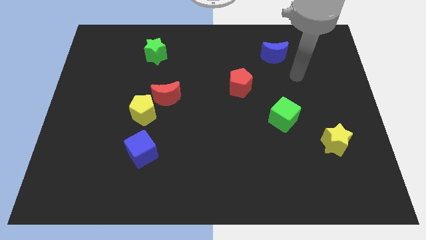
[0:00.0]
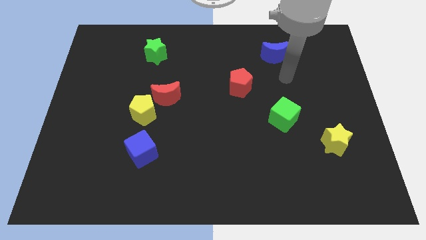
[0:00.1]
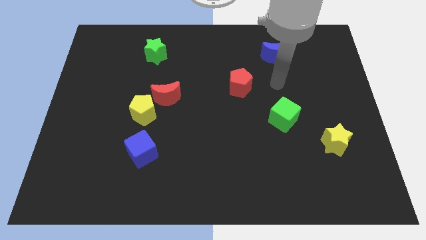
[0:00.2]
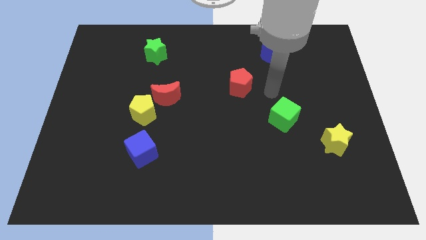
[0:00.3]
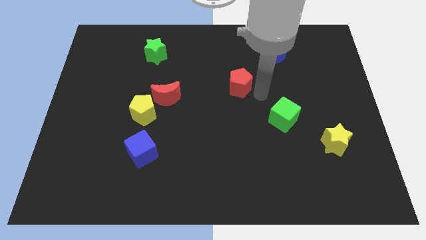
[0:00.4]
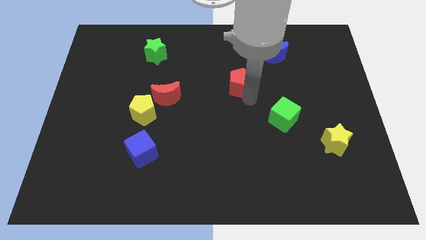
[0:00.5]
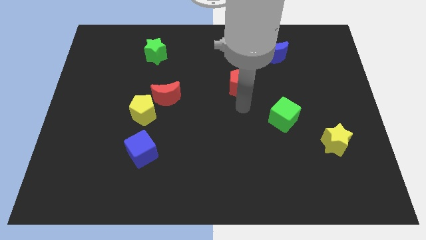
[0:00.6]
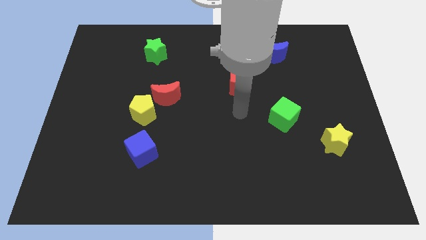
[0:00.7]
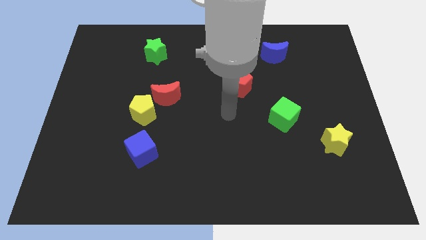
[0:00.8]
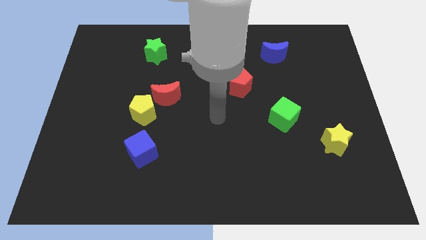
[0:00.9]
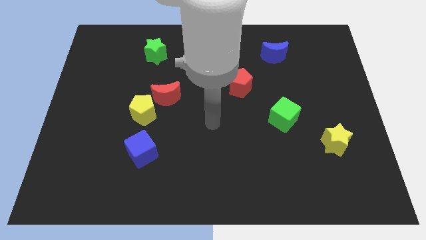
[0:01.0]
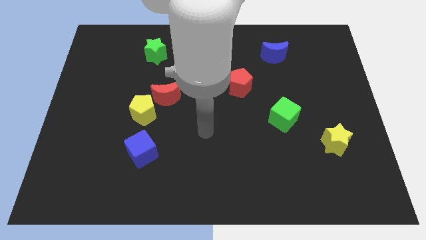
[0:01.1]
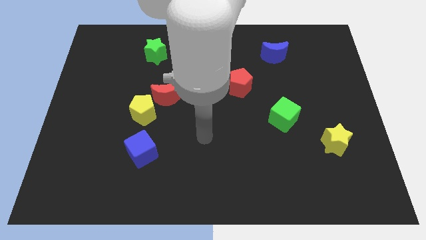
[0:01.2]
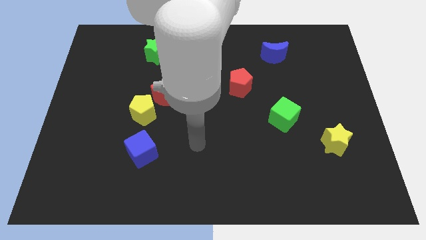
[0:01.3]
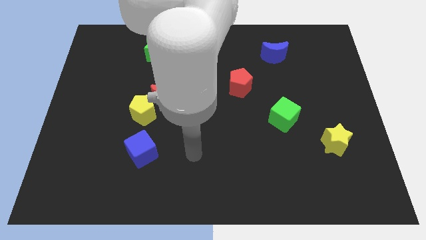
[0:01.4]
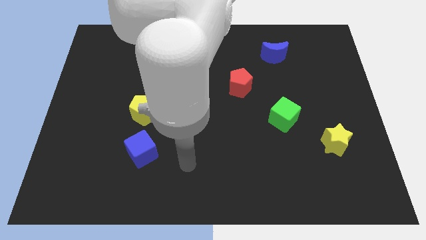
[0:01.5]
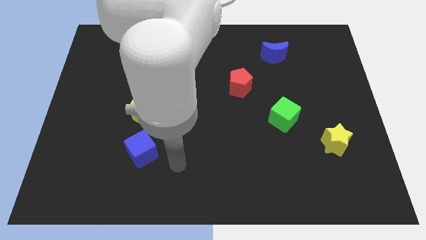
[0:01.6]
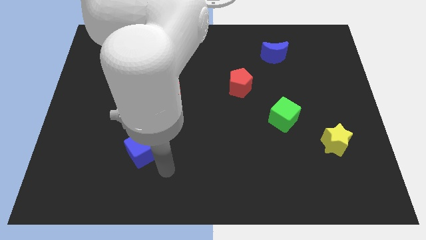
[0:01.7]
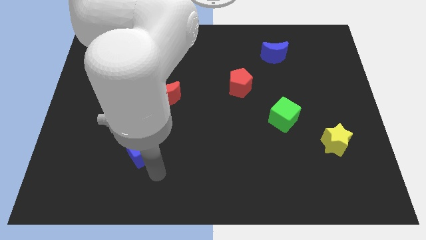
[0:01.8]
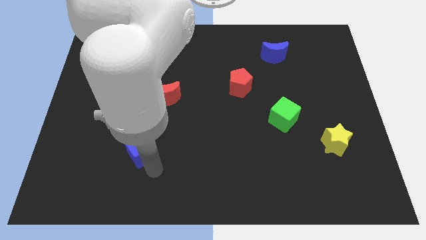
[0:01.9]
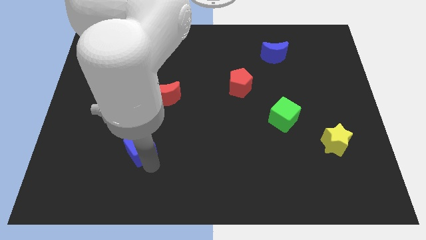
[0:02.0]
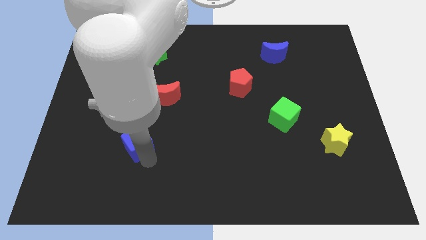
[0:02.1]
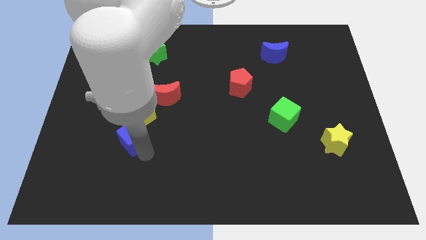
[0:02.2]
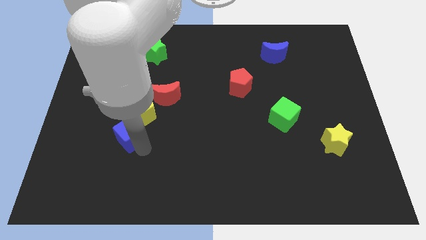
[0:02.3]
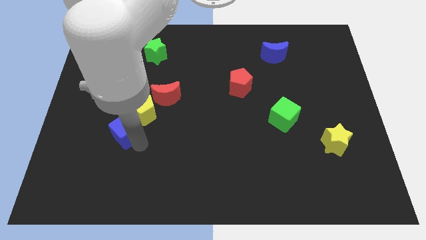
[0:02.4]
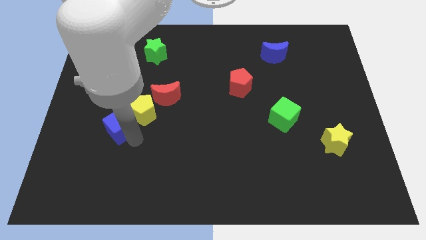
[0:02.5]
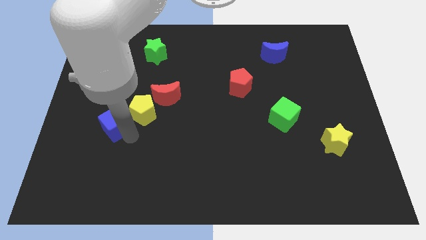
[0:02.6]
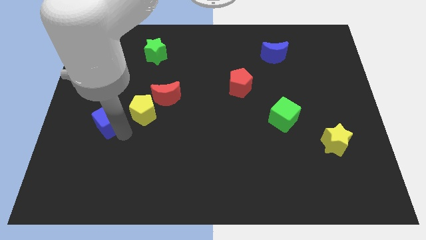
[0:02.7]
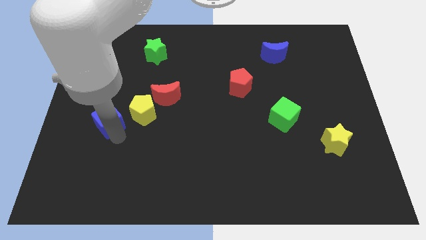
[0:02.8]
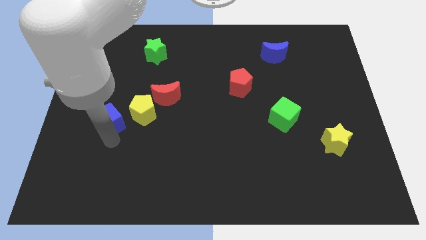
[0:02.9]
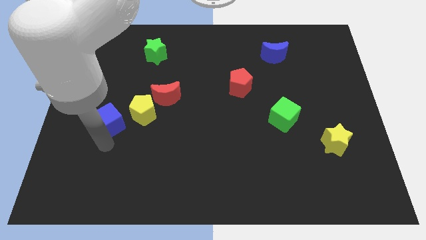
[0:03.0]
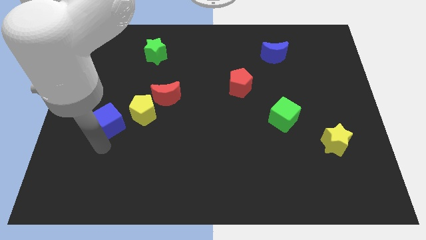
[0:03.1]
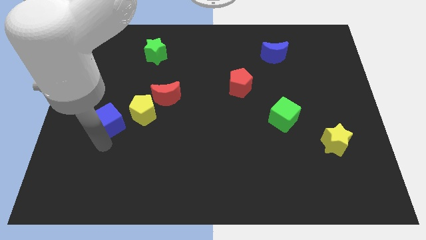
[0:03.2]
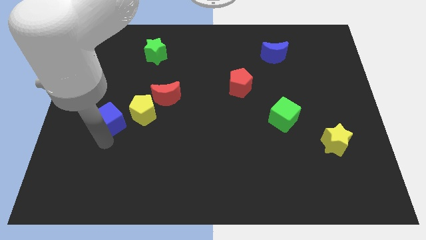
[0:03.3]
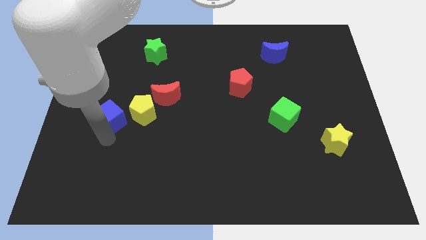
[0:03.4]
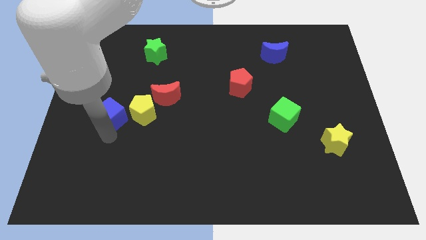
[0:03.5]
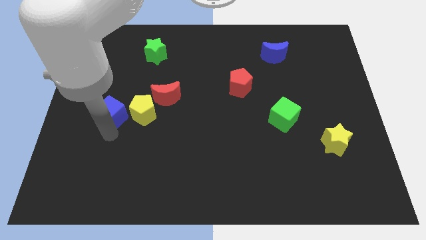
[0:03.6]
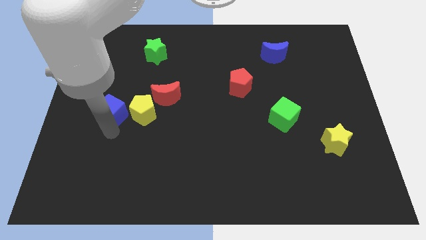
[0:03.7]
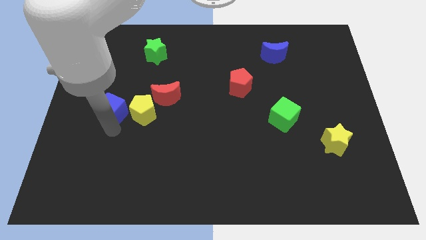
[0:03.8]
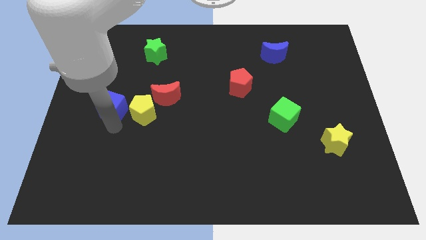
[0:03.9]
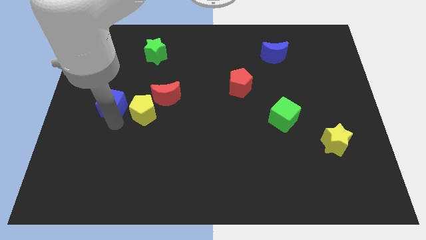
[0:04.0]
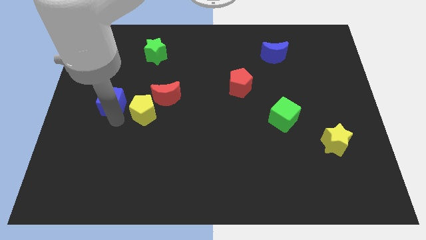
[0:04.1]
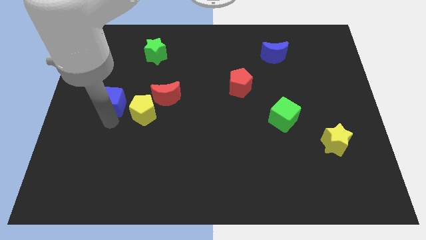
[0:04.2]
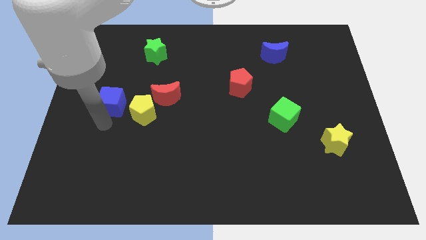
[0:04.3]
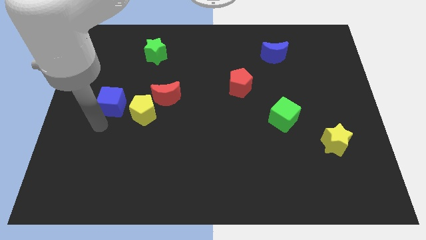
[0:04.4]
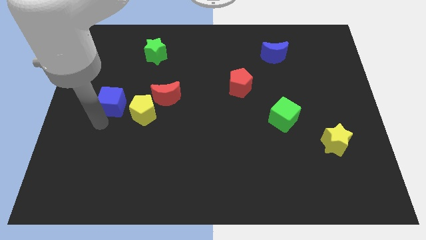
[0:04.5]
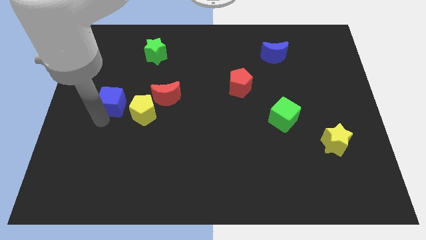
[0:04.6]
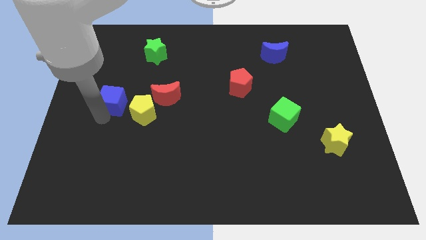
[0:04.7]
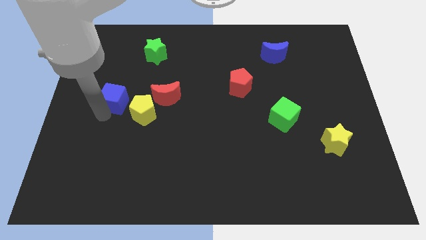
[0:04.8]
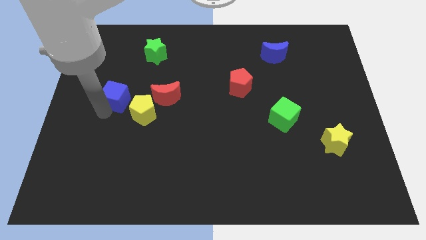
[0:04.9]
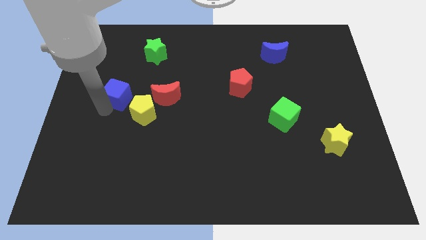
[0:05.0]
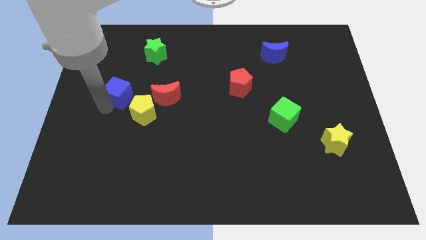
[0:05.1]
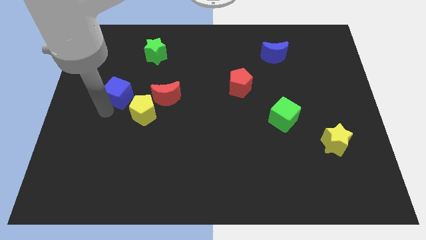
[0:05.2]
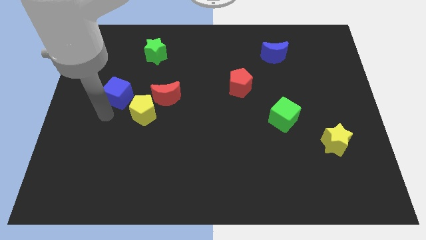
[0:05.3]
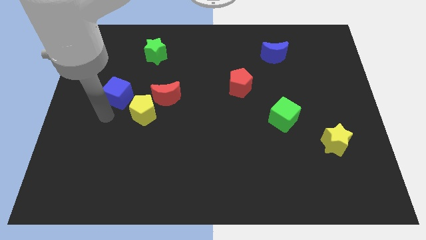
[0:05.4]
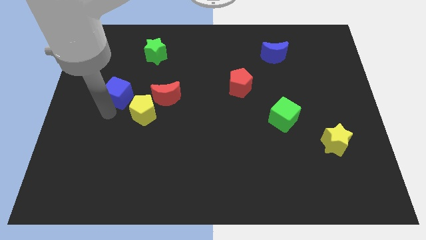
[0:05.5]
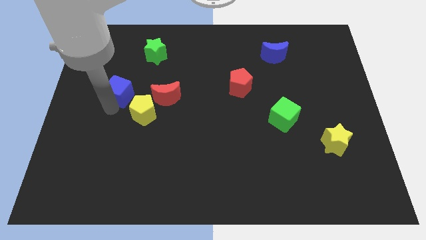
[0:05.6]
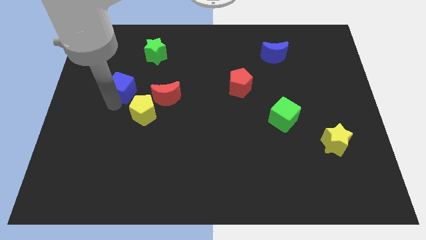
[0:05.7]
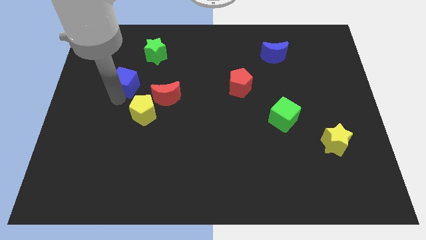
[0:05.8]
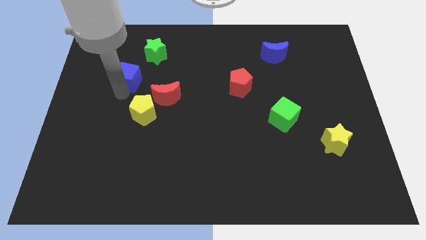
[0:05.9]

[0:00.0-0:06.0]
put the blue cube diagonally down and to the left of the green star

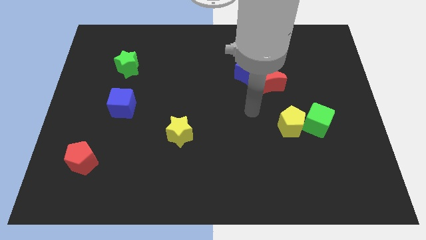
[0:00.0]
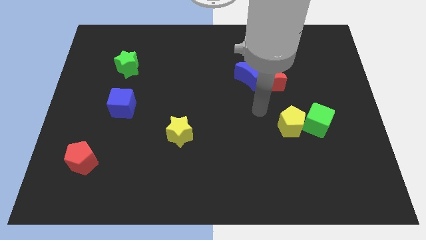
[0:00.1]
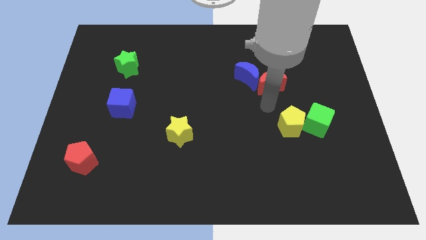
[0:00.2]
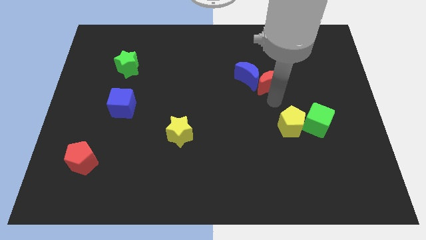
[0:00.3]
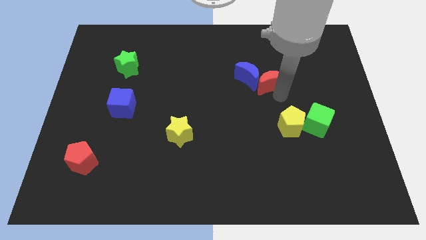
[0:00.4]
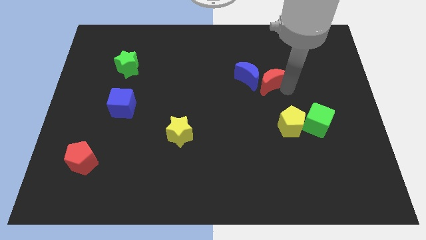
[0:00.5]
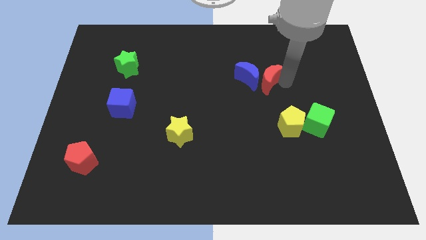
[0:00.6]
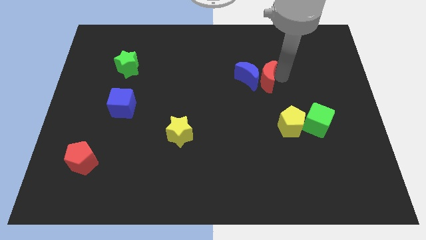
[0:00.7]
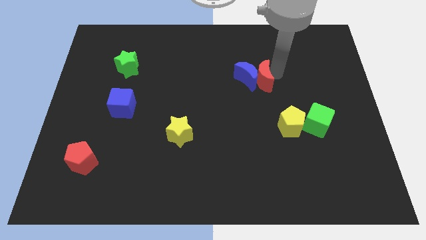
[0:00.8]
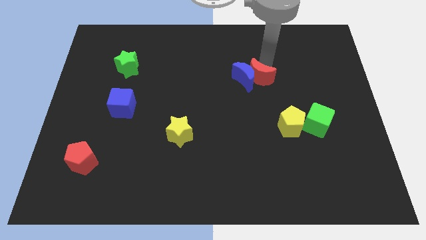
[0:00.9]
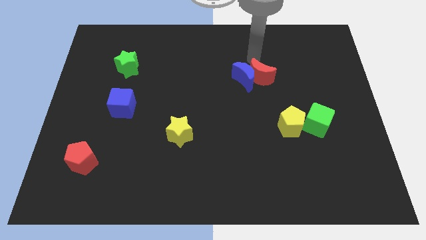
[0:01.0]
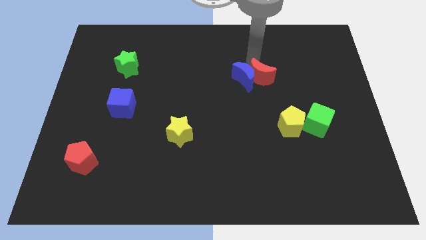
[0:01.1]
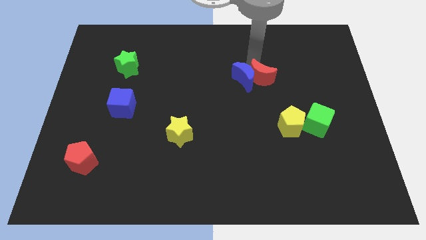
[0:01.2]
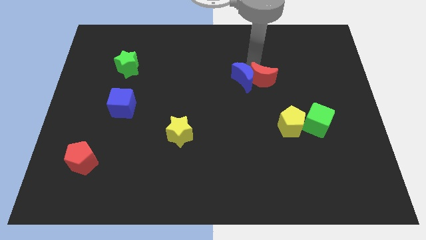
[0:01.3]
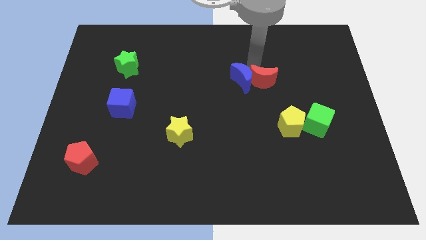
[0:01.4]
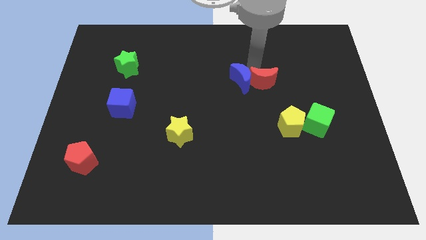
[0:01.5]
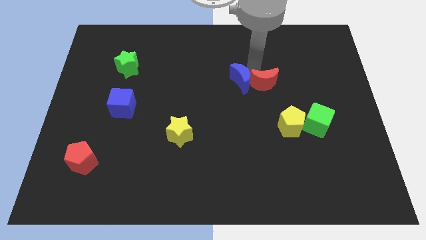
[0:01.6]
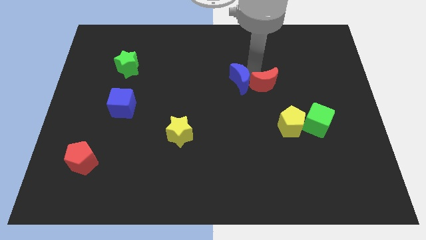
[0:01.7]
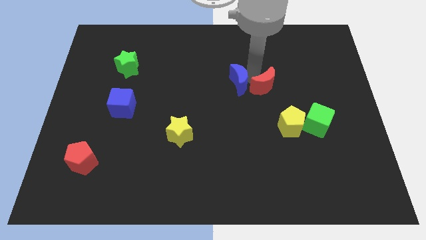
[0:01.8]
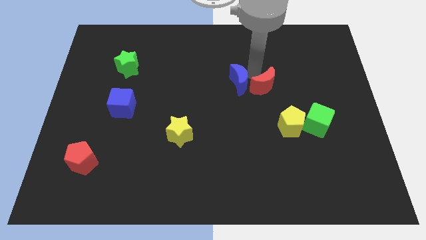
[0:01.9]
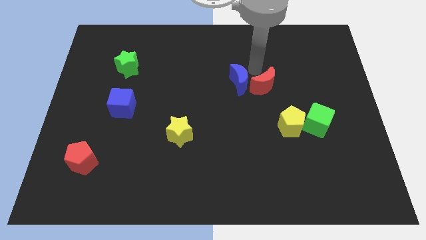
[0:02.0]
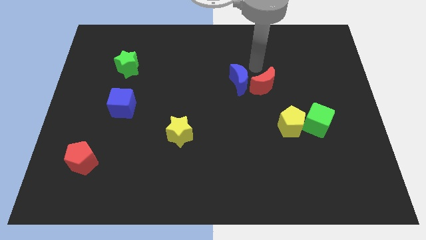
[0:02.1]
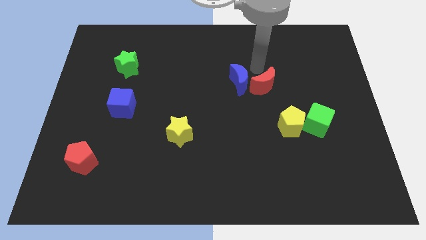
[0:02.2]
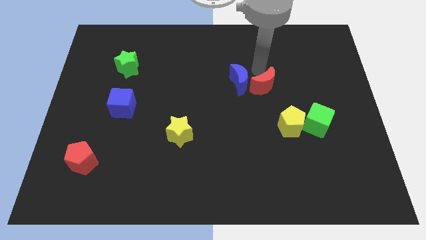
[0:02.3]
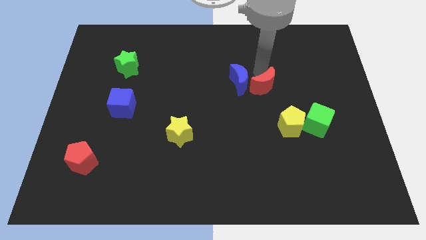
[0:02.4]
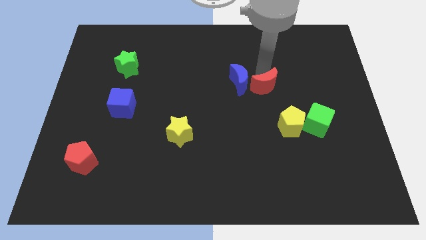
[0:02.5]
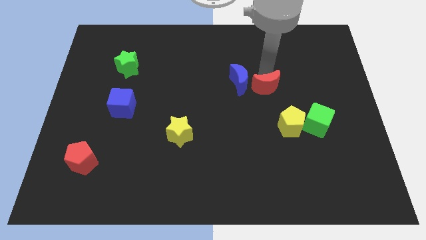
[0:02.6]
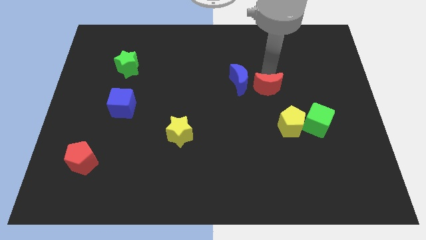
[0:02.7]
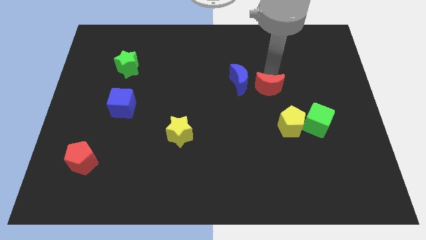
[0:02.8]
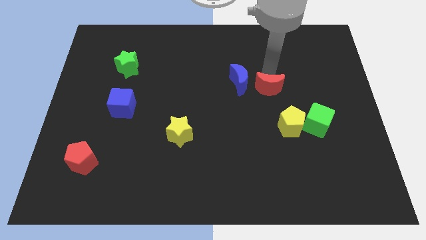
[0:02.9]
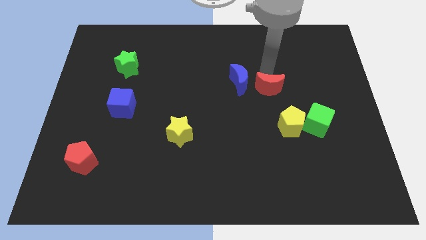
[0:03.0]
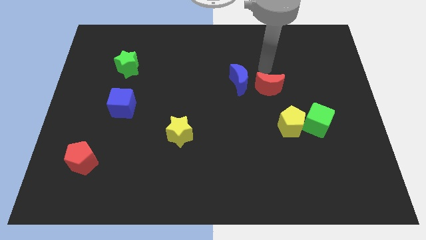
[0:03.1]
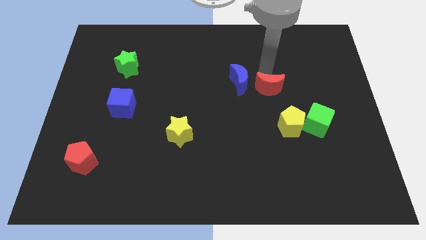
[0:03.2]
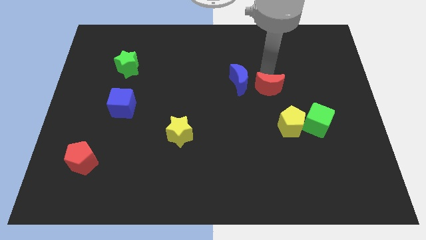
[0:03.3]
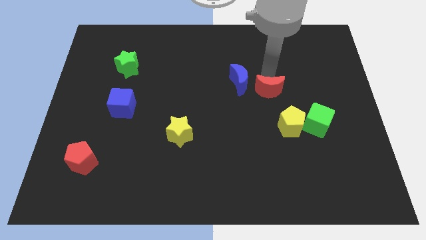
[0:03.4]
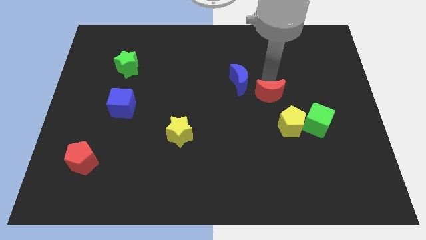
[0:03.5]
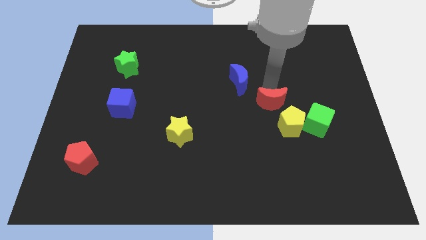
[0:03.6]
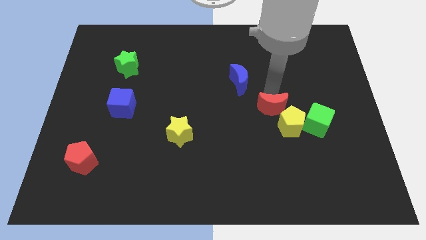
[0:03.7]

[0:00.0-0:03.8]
move the red moon to the left of the green cube
